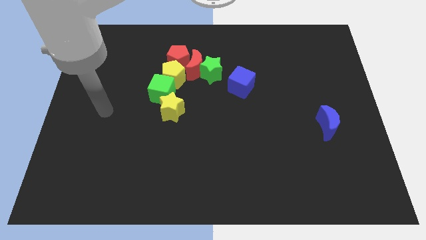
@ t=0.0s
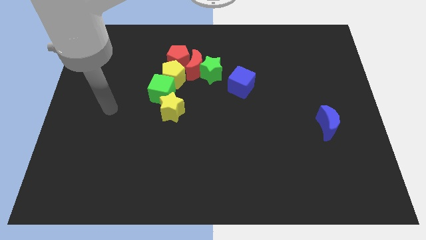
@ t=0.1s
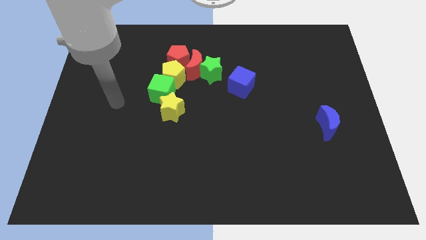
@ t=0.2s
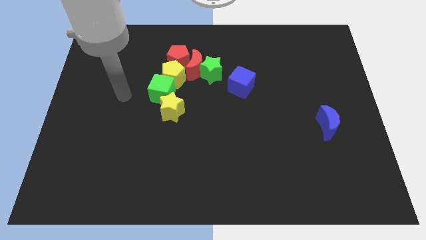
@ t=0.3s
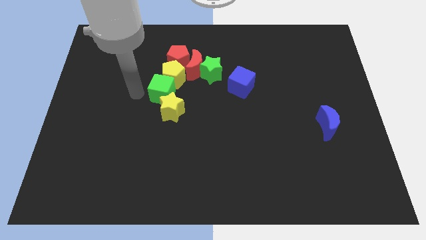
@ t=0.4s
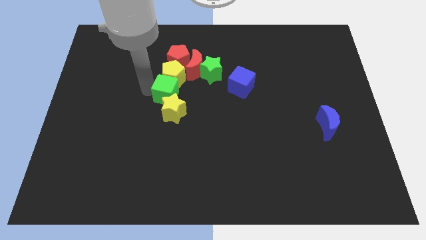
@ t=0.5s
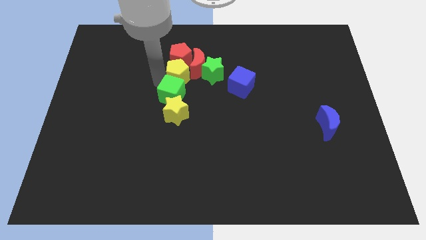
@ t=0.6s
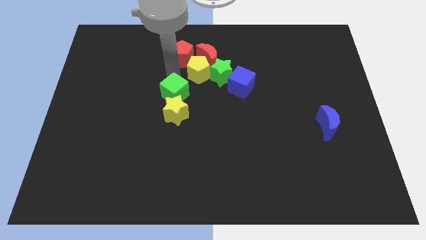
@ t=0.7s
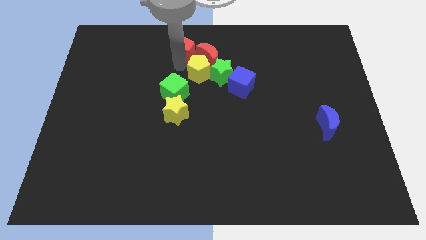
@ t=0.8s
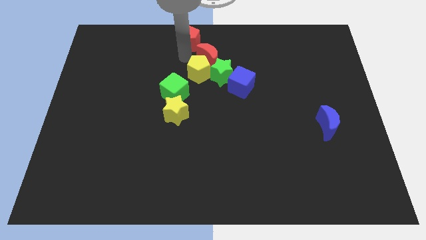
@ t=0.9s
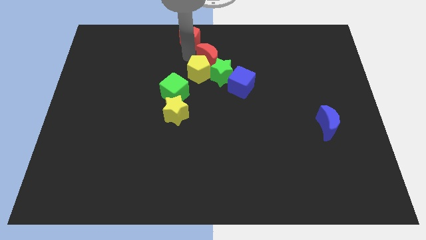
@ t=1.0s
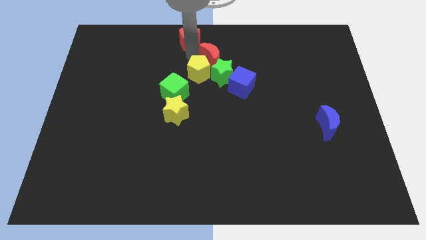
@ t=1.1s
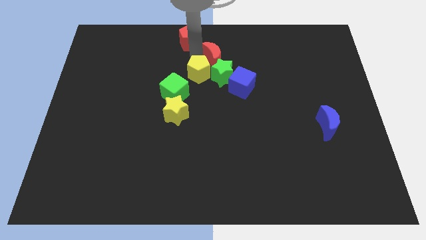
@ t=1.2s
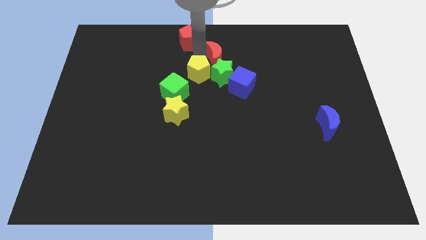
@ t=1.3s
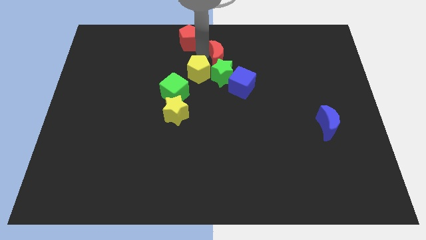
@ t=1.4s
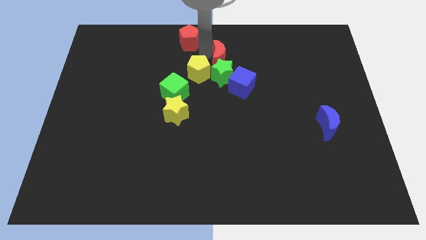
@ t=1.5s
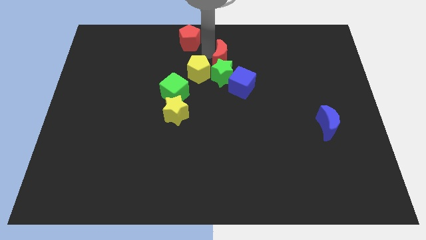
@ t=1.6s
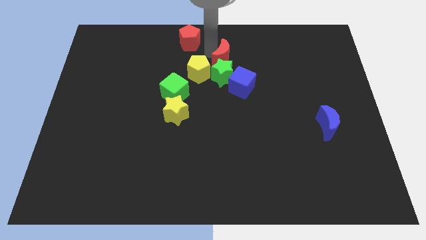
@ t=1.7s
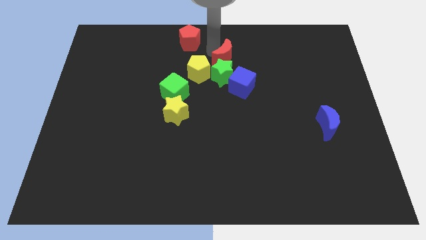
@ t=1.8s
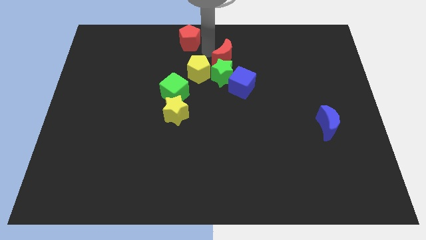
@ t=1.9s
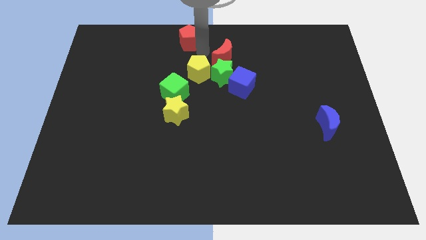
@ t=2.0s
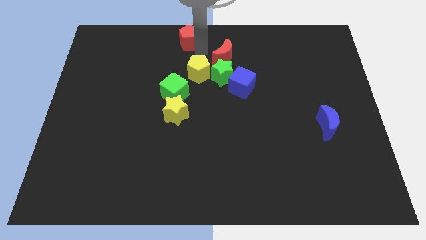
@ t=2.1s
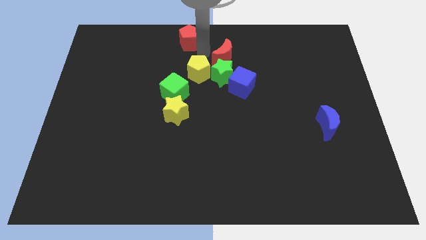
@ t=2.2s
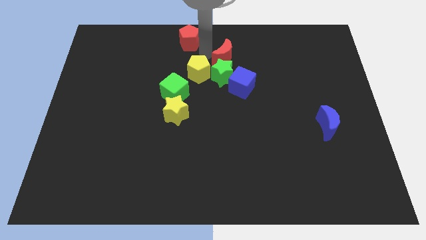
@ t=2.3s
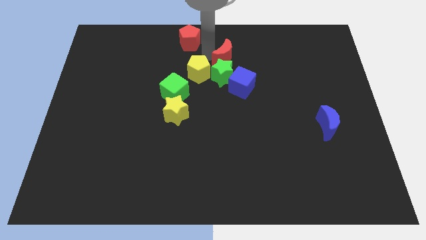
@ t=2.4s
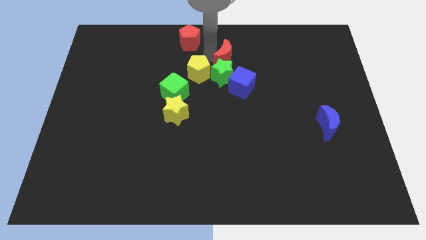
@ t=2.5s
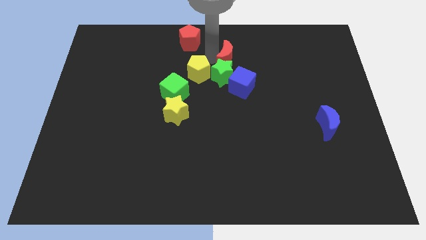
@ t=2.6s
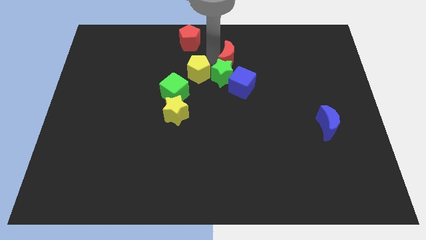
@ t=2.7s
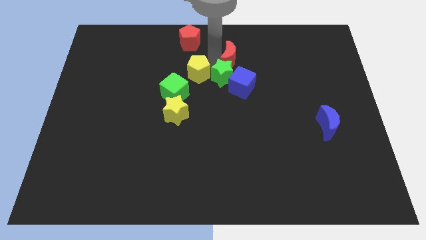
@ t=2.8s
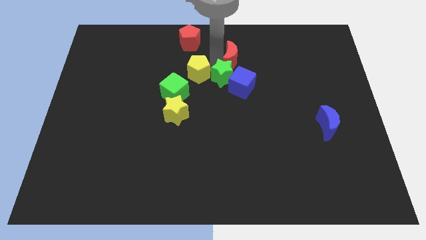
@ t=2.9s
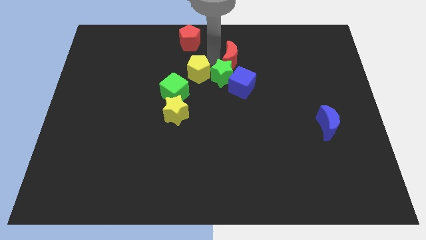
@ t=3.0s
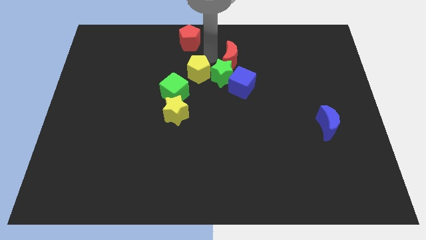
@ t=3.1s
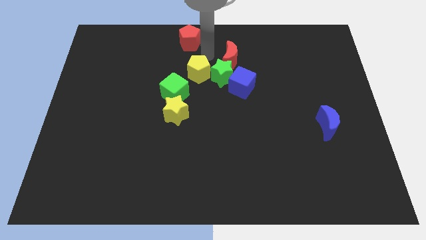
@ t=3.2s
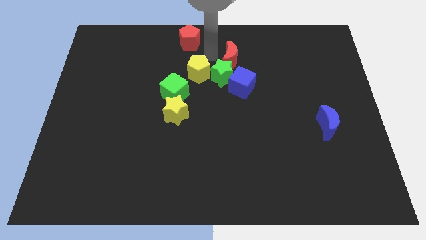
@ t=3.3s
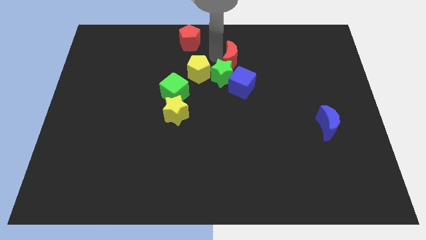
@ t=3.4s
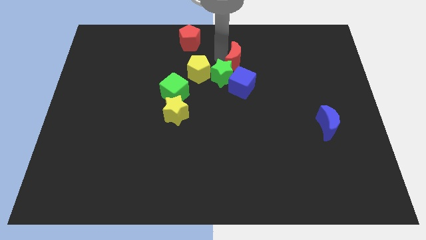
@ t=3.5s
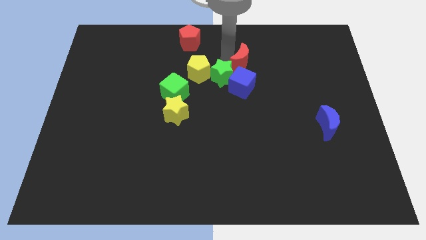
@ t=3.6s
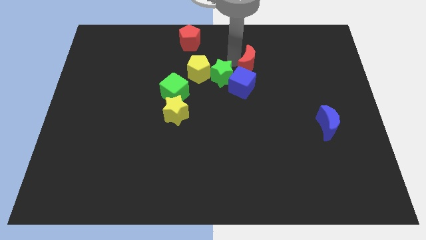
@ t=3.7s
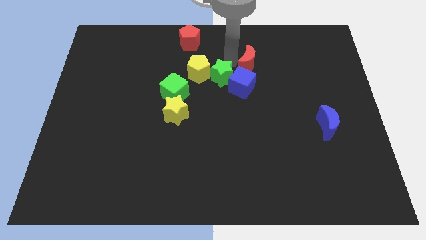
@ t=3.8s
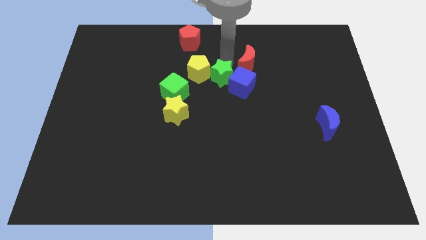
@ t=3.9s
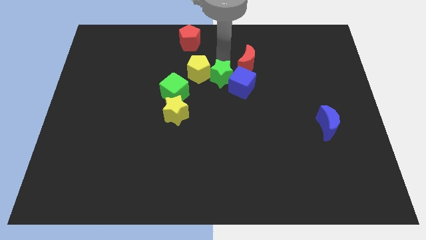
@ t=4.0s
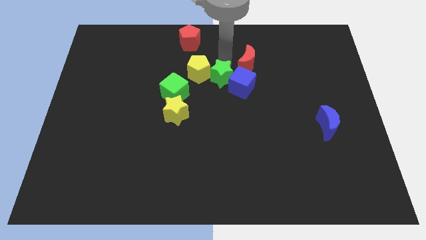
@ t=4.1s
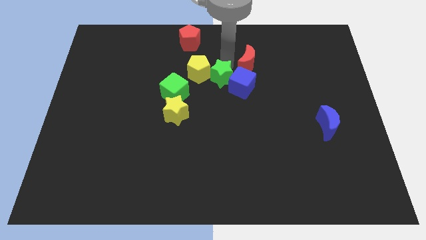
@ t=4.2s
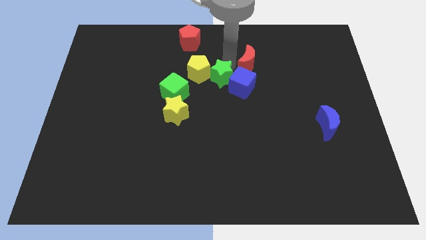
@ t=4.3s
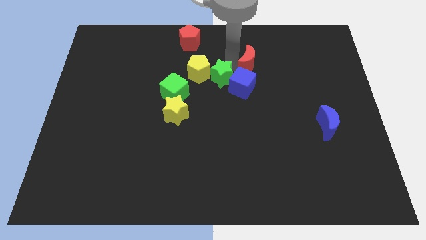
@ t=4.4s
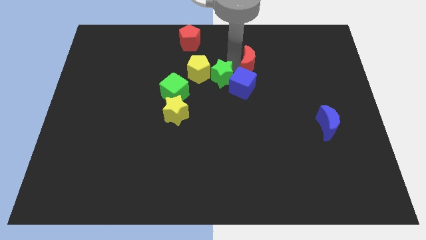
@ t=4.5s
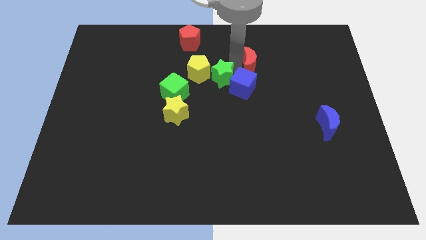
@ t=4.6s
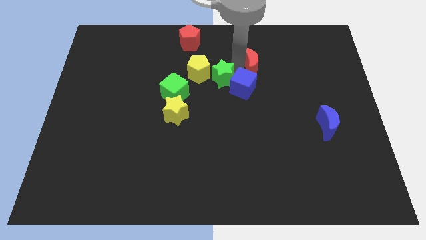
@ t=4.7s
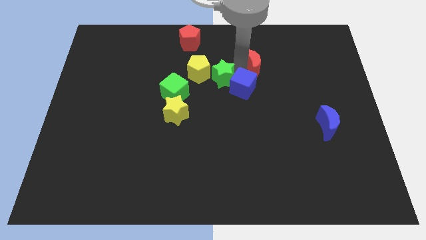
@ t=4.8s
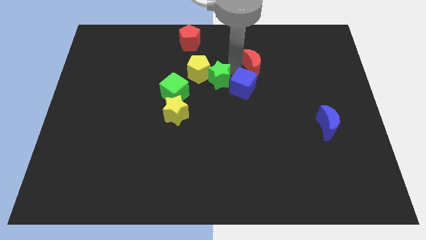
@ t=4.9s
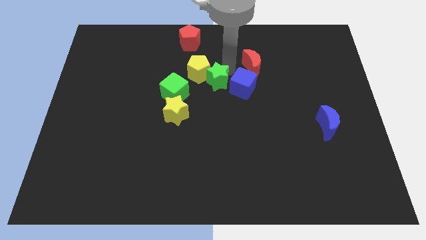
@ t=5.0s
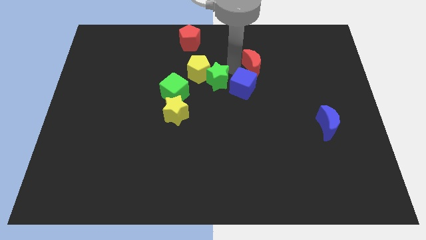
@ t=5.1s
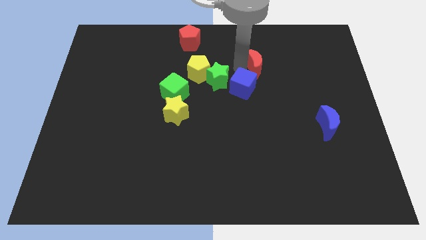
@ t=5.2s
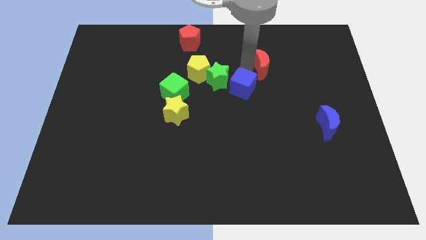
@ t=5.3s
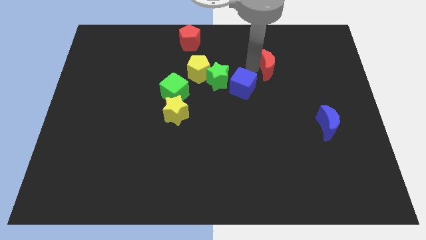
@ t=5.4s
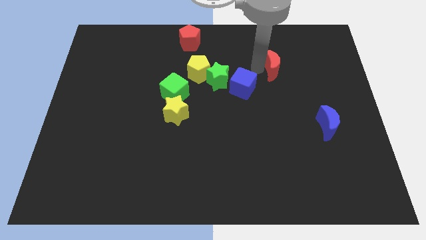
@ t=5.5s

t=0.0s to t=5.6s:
move the red moon right

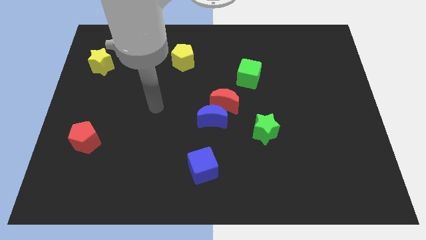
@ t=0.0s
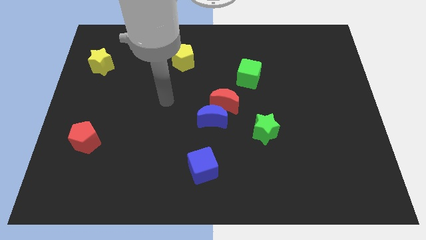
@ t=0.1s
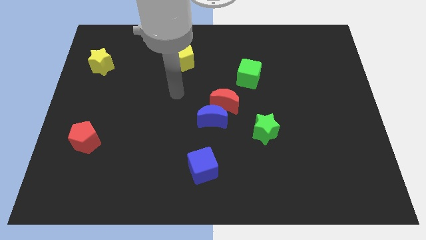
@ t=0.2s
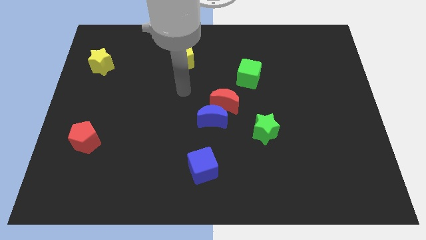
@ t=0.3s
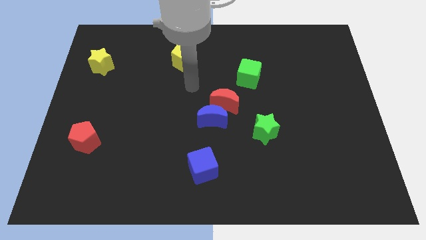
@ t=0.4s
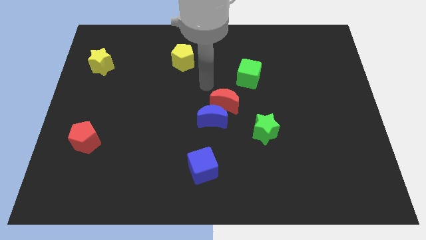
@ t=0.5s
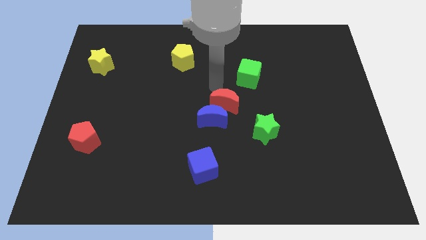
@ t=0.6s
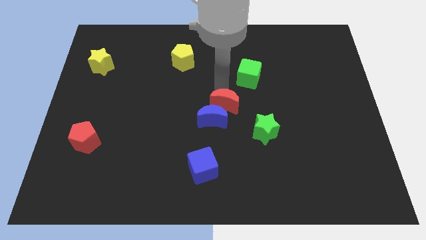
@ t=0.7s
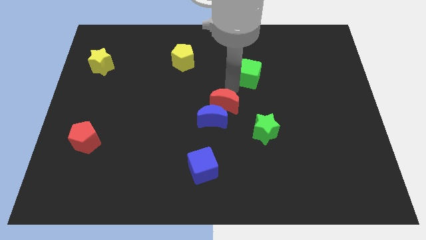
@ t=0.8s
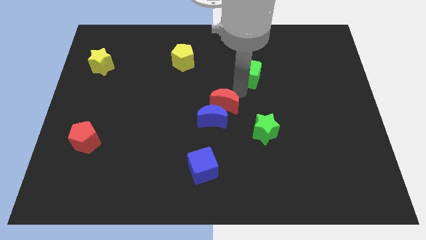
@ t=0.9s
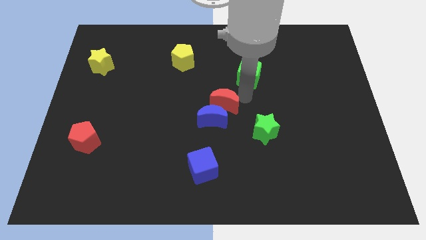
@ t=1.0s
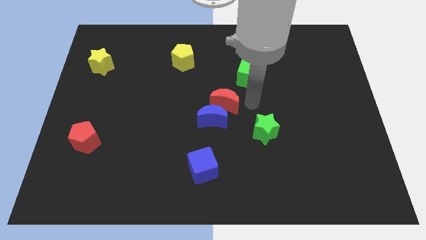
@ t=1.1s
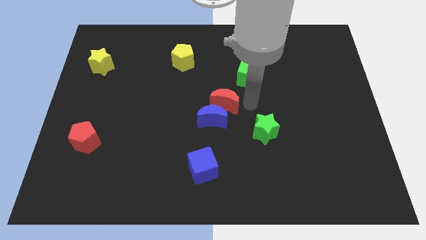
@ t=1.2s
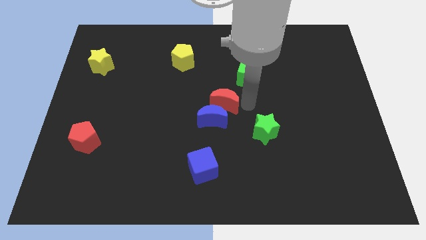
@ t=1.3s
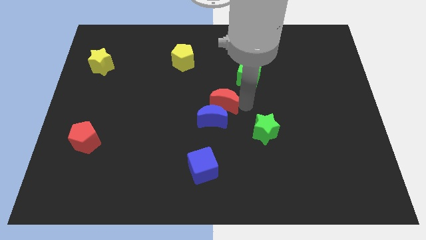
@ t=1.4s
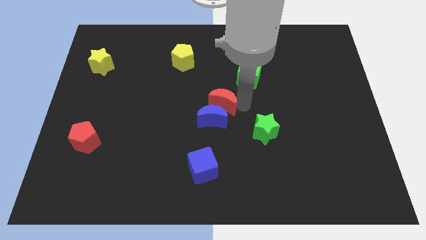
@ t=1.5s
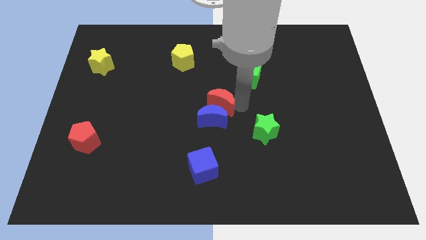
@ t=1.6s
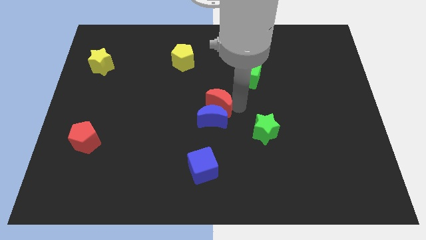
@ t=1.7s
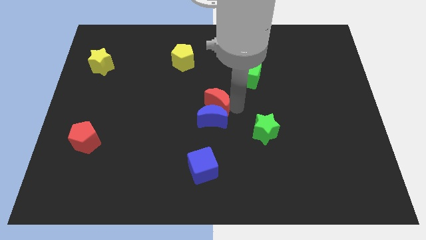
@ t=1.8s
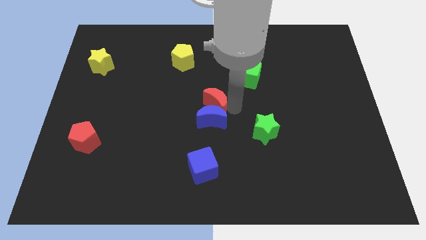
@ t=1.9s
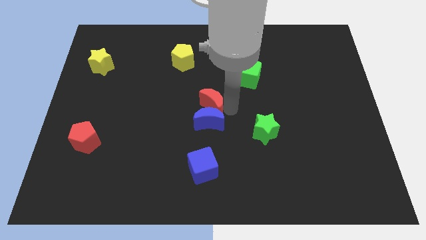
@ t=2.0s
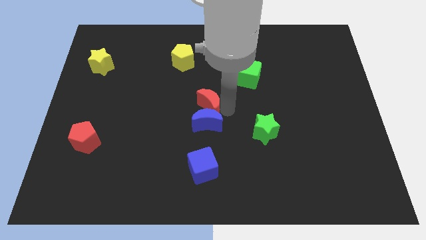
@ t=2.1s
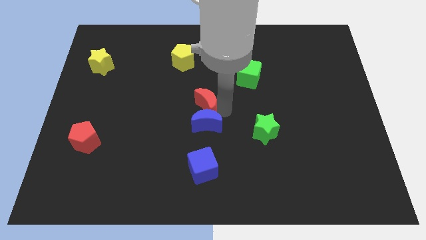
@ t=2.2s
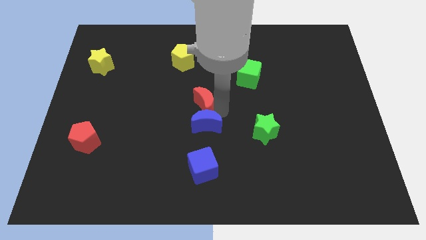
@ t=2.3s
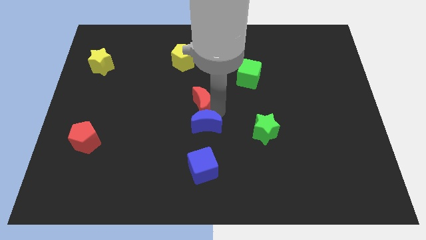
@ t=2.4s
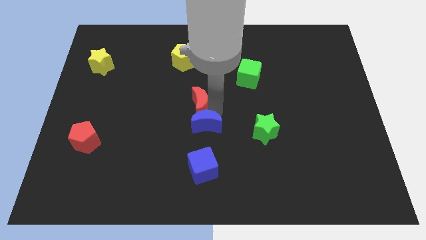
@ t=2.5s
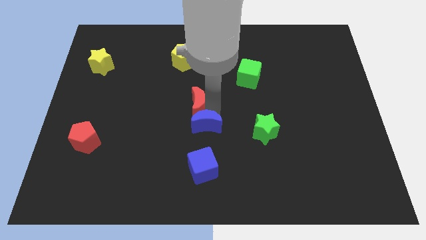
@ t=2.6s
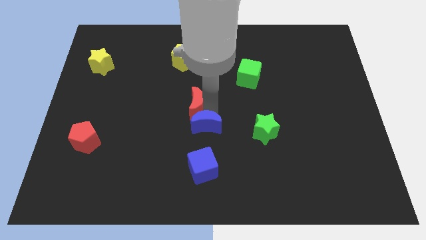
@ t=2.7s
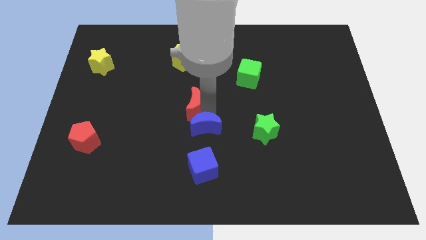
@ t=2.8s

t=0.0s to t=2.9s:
slightly move the red moon left
